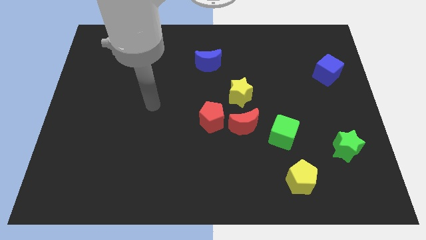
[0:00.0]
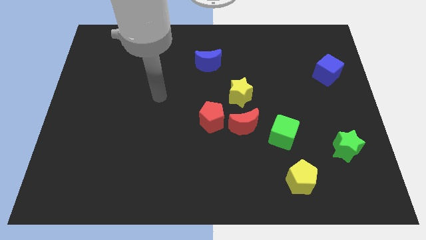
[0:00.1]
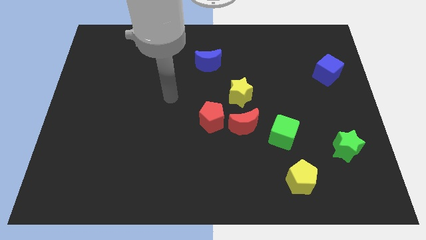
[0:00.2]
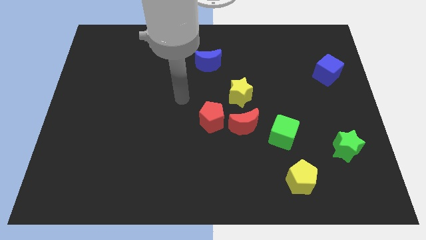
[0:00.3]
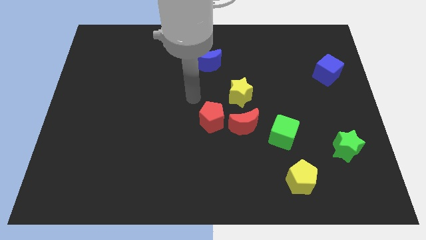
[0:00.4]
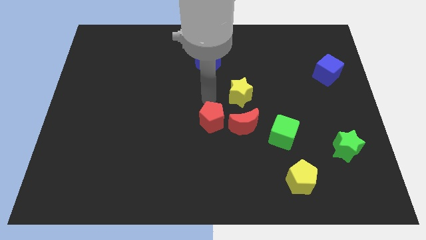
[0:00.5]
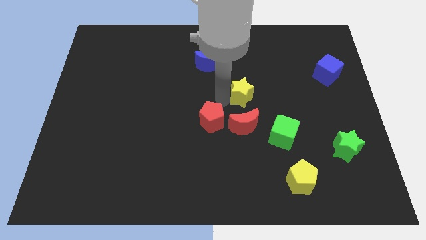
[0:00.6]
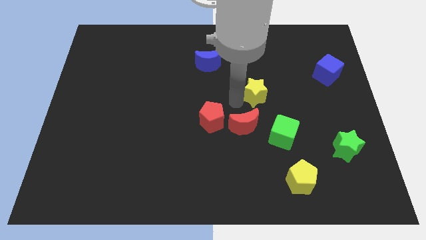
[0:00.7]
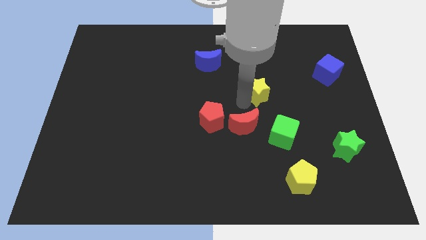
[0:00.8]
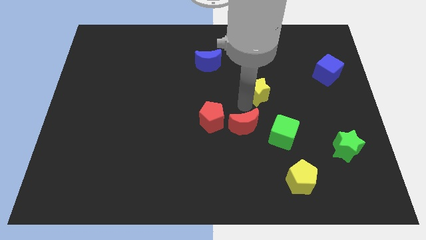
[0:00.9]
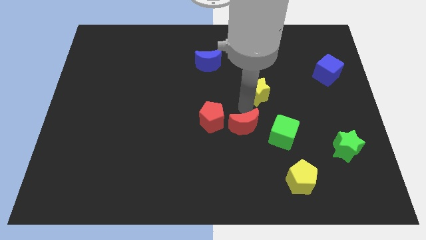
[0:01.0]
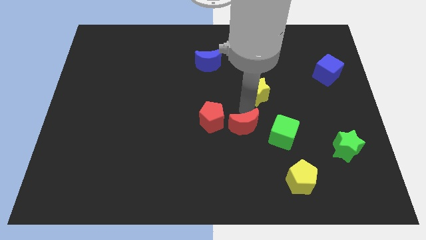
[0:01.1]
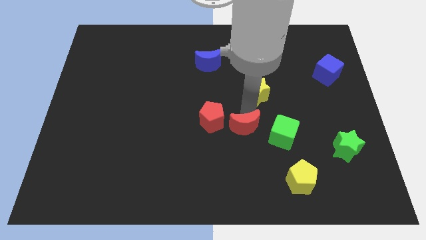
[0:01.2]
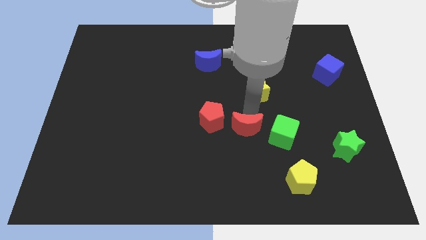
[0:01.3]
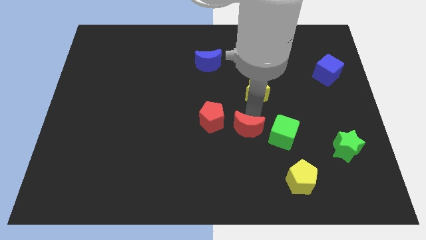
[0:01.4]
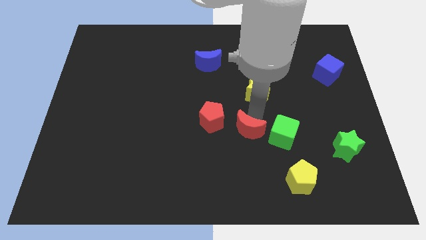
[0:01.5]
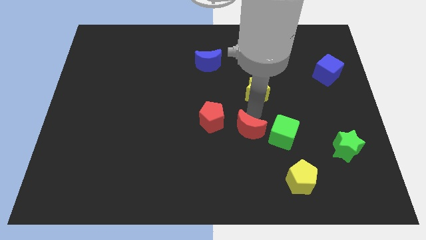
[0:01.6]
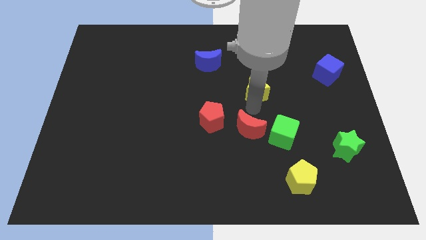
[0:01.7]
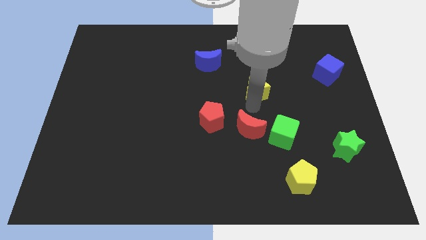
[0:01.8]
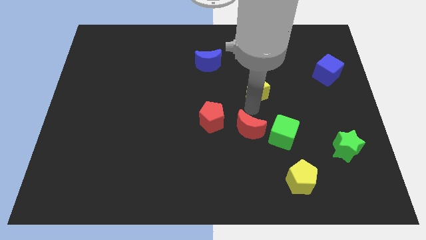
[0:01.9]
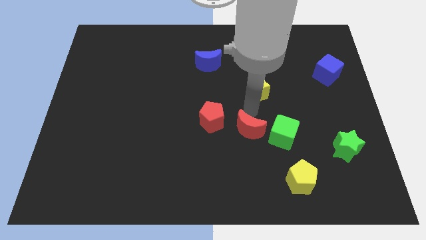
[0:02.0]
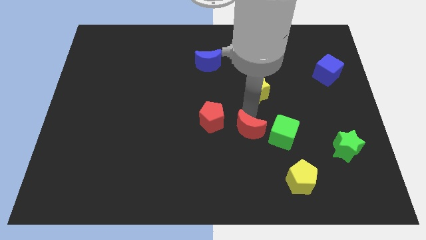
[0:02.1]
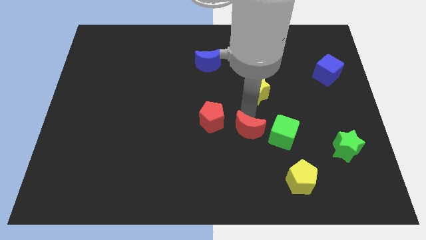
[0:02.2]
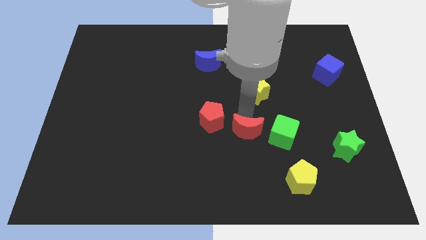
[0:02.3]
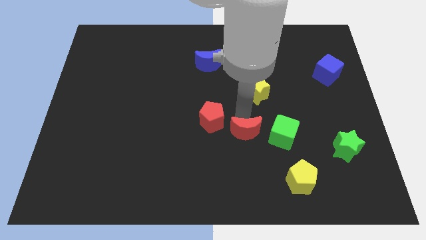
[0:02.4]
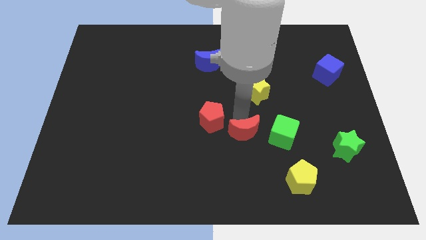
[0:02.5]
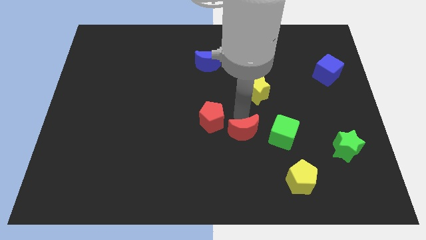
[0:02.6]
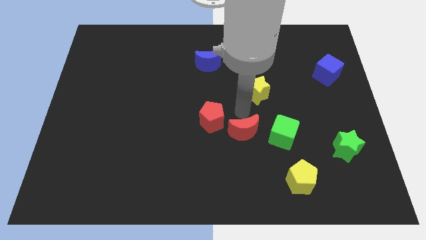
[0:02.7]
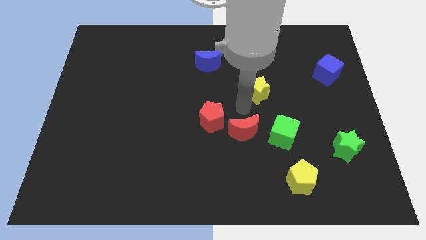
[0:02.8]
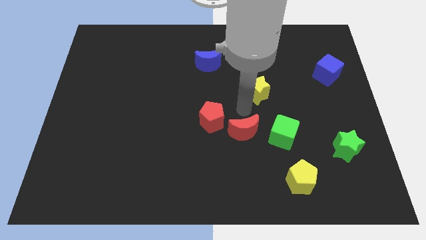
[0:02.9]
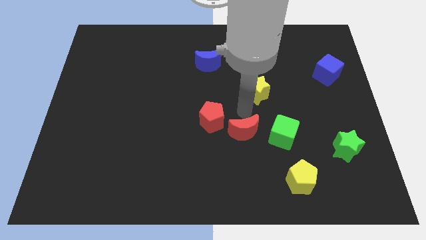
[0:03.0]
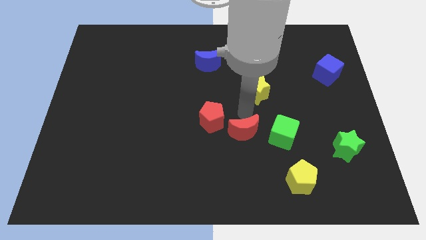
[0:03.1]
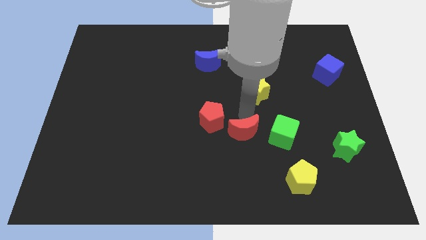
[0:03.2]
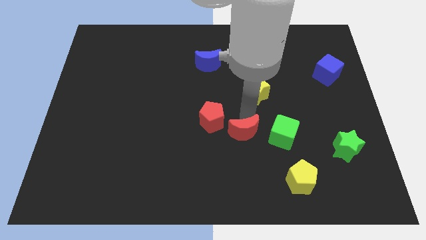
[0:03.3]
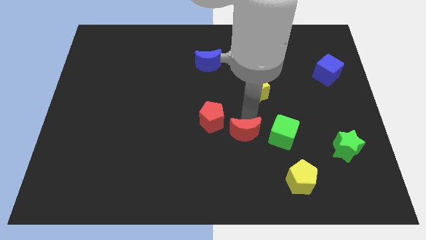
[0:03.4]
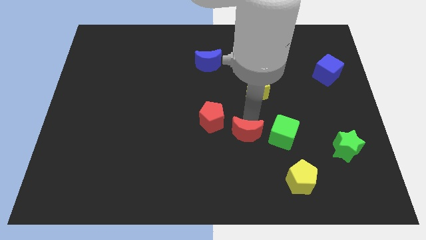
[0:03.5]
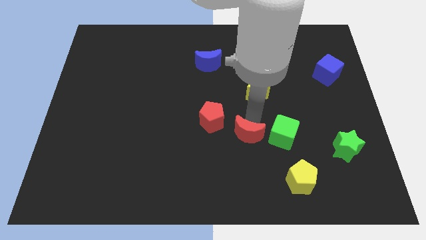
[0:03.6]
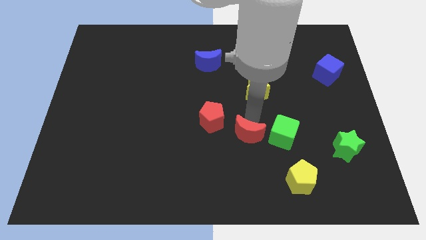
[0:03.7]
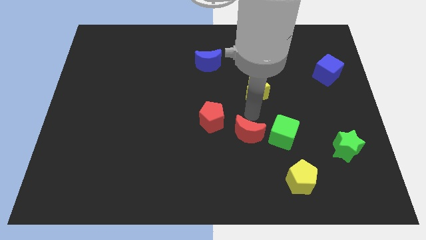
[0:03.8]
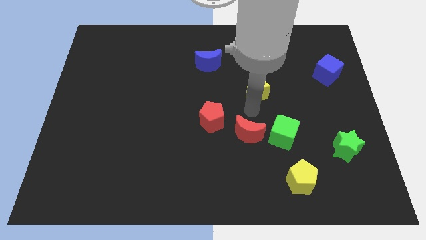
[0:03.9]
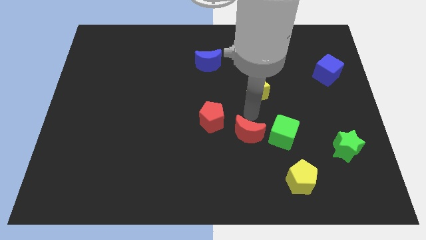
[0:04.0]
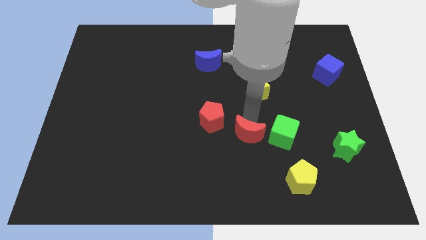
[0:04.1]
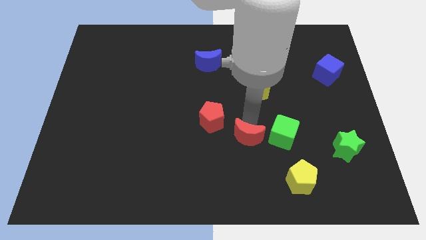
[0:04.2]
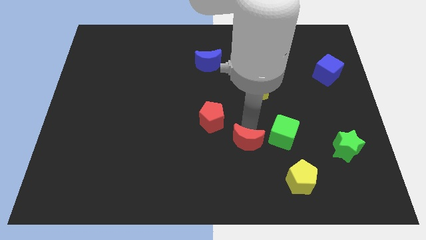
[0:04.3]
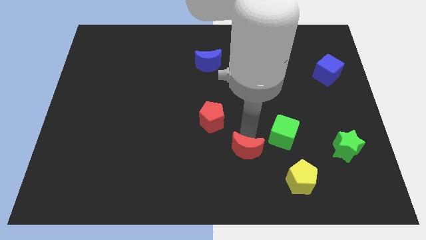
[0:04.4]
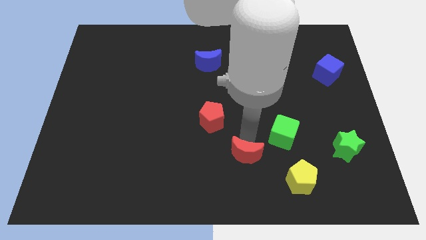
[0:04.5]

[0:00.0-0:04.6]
move the red moon away from the red pentagon, green cube, and yellow star

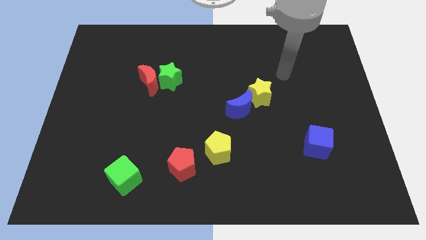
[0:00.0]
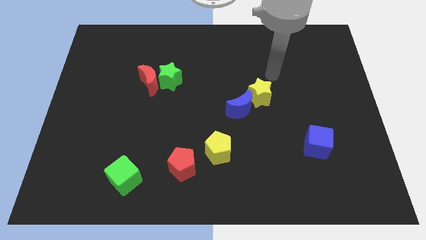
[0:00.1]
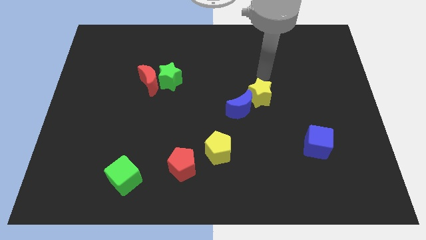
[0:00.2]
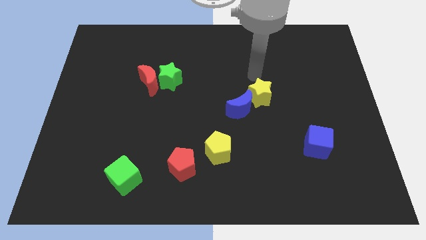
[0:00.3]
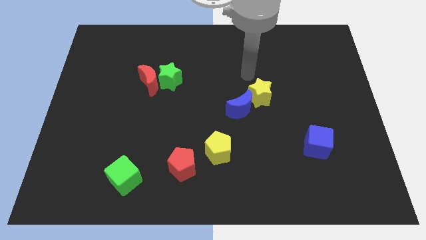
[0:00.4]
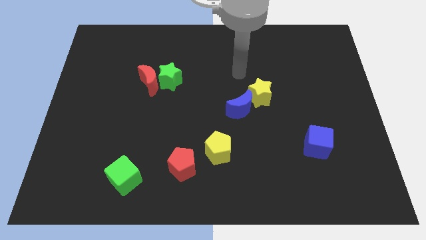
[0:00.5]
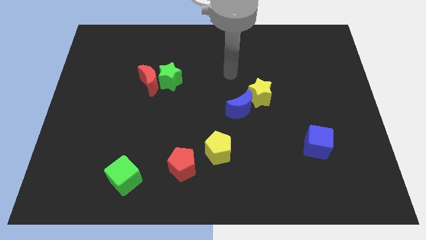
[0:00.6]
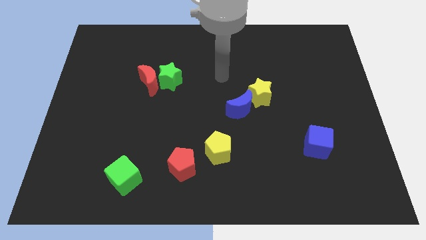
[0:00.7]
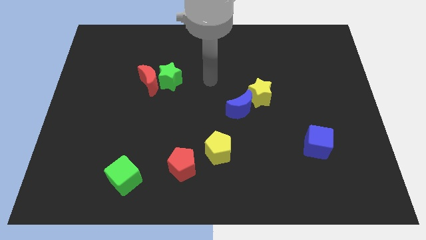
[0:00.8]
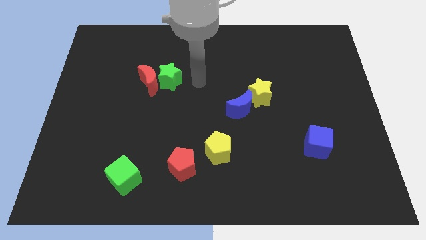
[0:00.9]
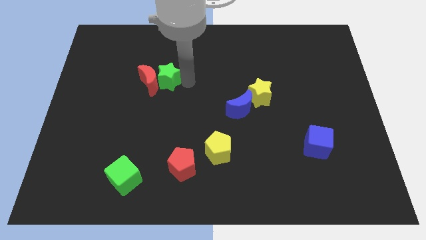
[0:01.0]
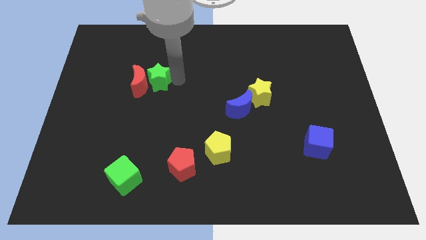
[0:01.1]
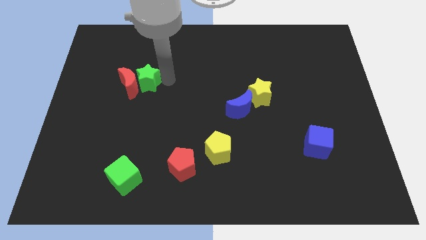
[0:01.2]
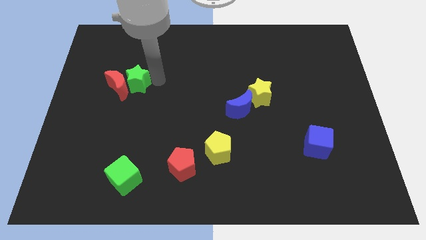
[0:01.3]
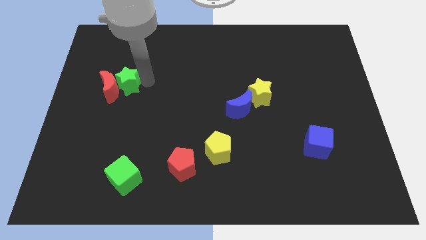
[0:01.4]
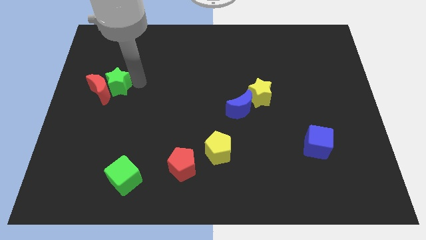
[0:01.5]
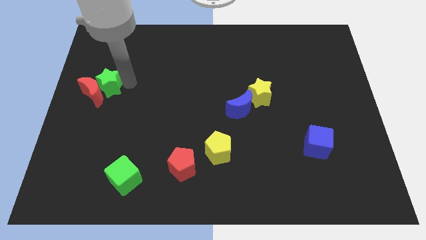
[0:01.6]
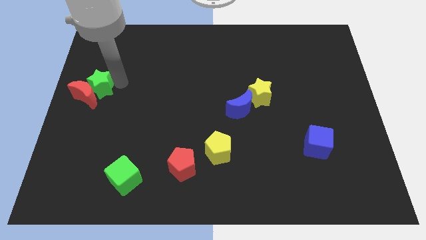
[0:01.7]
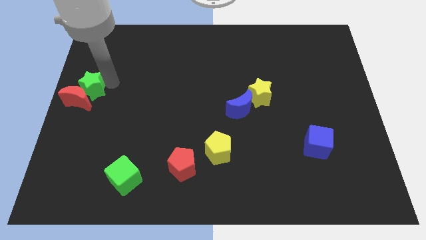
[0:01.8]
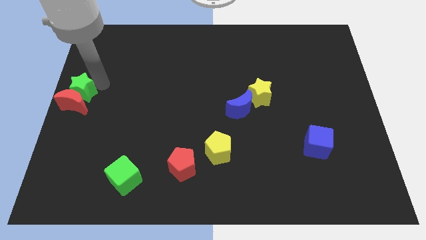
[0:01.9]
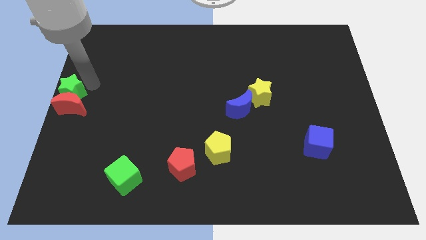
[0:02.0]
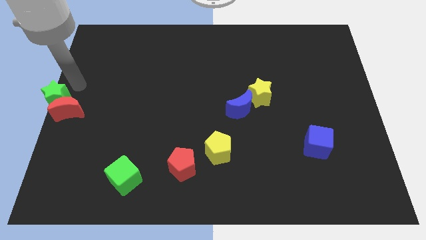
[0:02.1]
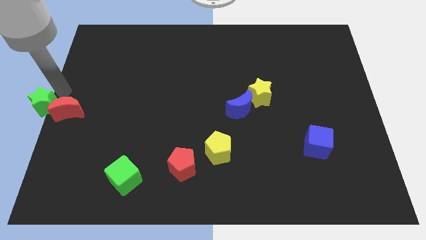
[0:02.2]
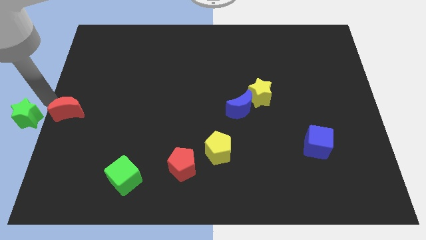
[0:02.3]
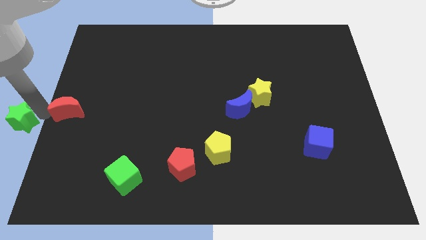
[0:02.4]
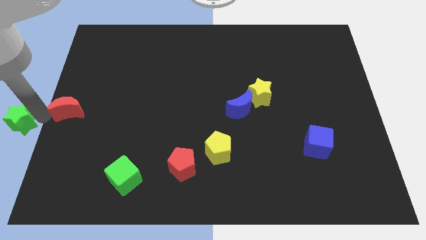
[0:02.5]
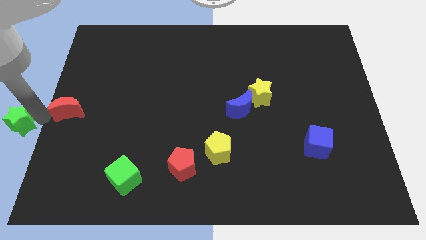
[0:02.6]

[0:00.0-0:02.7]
move the red moon away from the green star

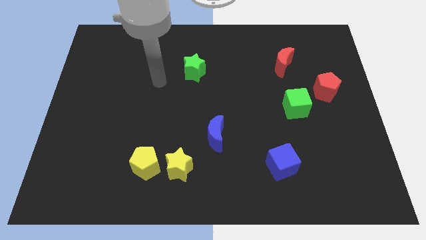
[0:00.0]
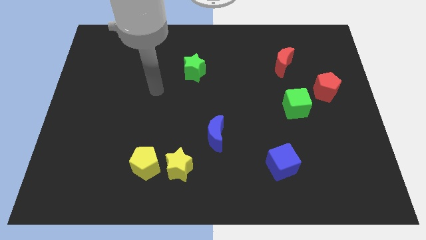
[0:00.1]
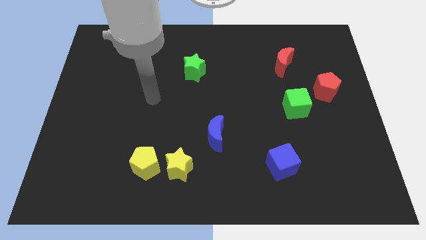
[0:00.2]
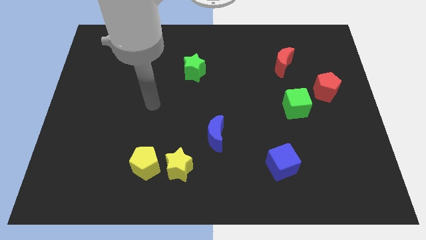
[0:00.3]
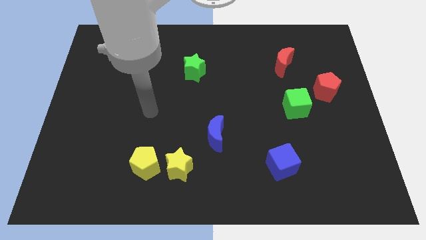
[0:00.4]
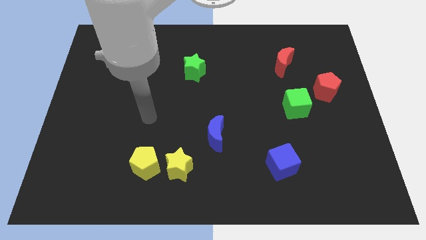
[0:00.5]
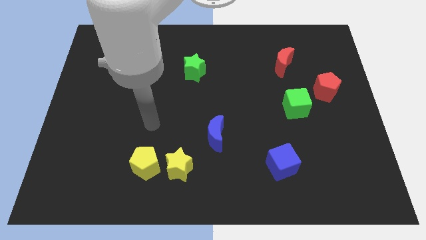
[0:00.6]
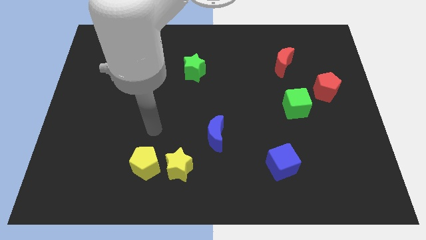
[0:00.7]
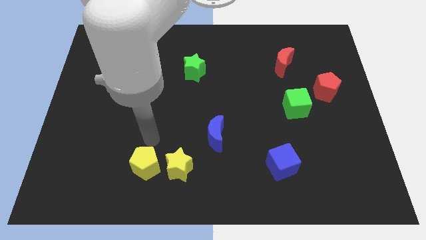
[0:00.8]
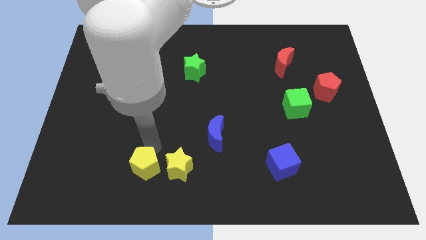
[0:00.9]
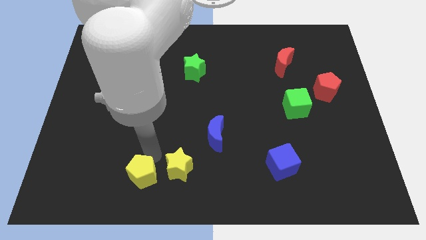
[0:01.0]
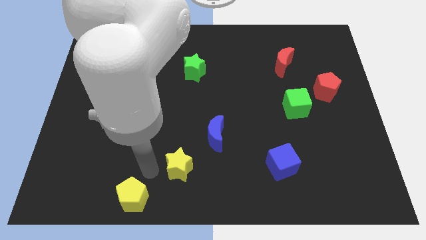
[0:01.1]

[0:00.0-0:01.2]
separate the yellow star from the yellow pentagon

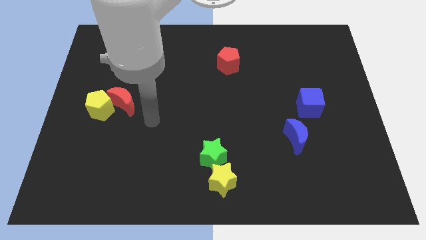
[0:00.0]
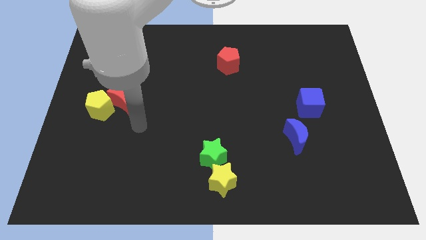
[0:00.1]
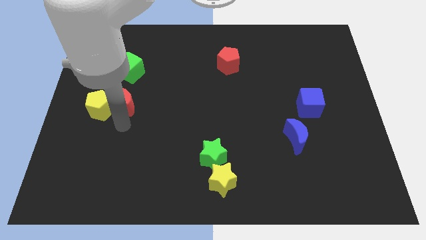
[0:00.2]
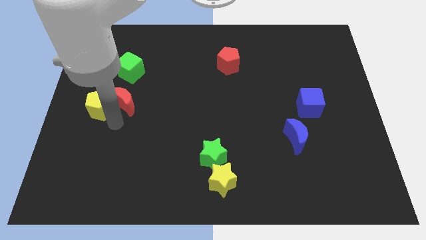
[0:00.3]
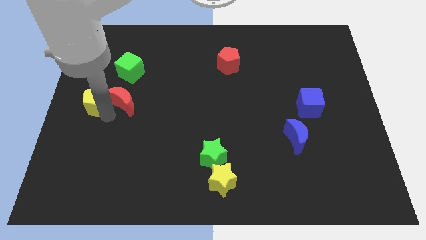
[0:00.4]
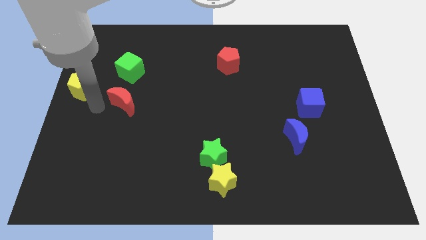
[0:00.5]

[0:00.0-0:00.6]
pull the red moon apart from the yellow pentagon

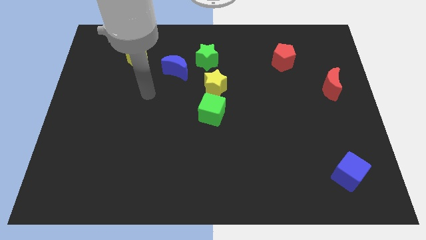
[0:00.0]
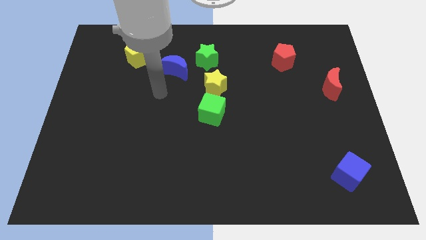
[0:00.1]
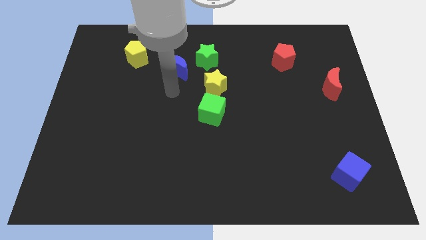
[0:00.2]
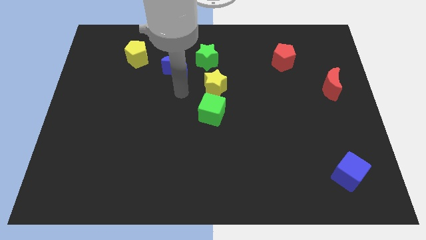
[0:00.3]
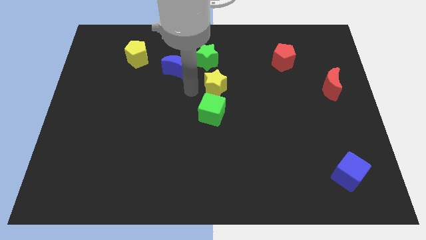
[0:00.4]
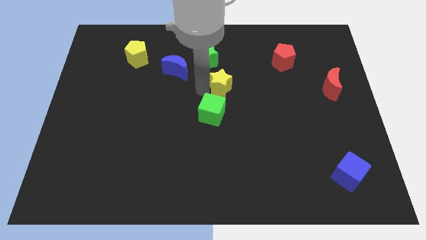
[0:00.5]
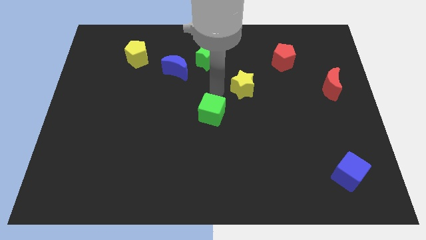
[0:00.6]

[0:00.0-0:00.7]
separate the green cube from the yellow star
